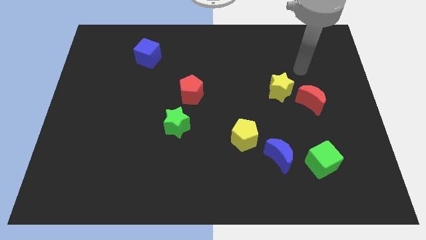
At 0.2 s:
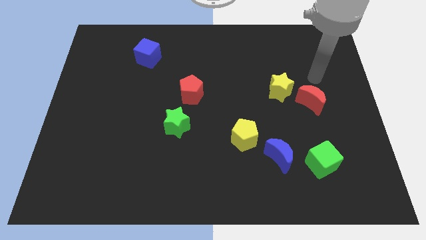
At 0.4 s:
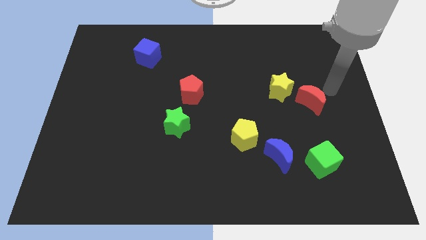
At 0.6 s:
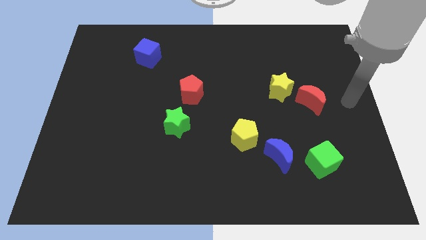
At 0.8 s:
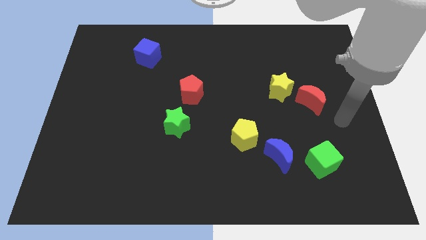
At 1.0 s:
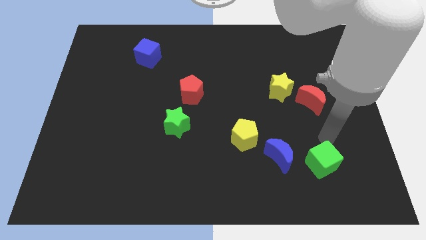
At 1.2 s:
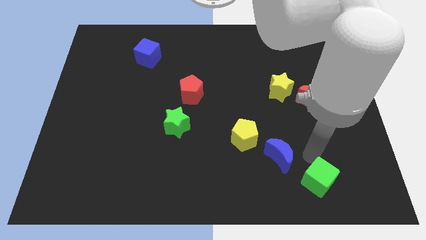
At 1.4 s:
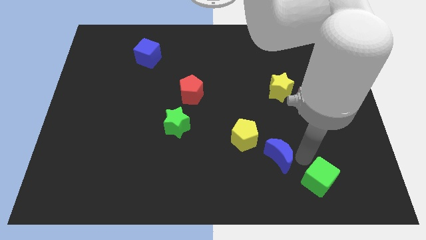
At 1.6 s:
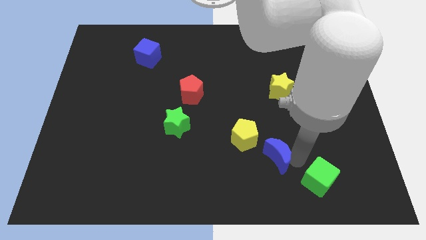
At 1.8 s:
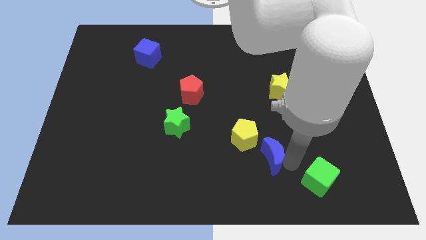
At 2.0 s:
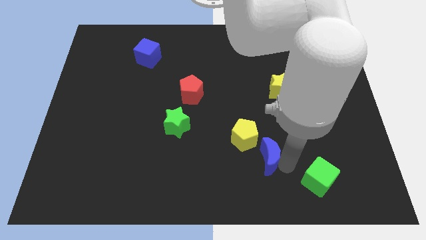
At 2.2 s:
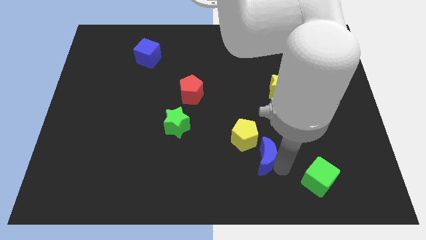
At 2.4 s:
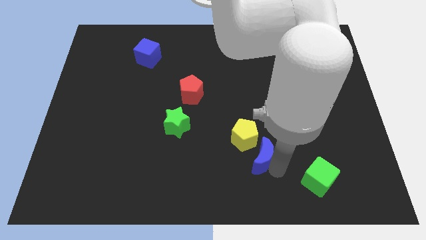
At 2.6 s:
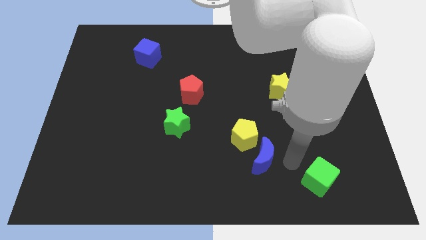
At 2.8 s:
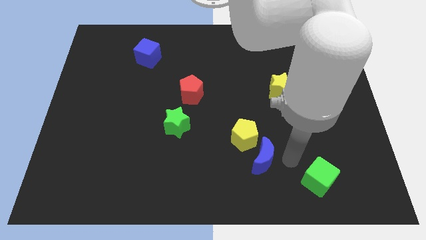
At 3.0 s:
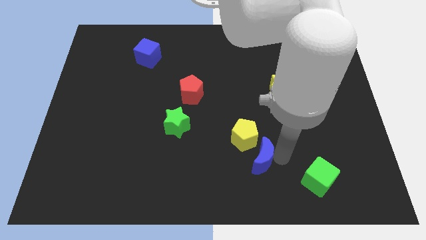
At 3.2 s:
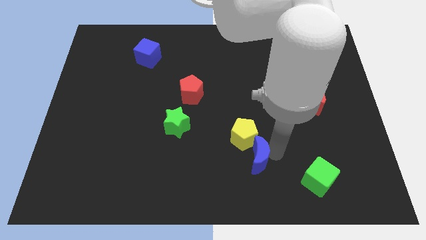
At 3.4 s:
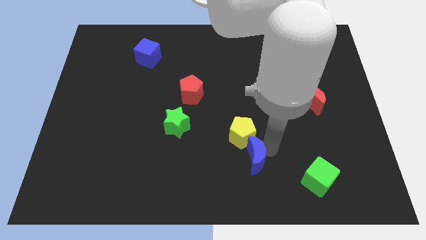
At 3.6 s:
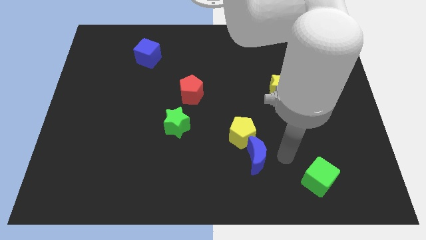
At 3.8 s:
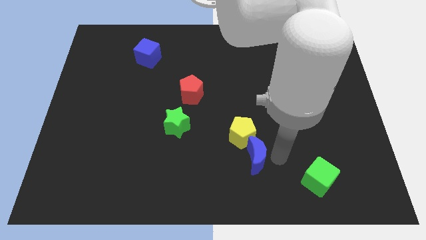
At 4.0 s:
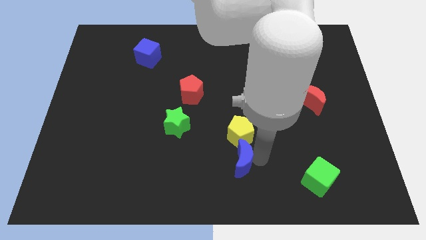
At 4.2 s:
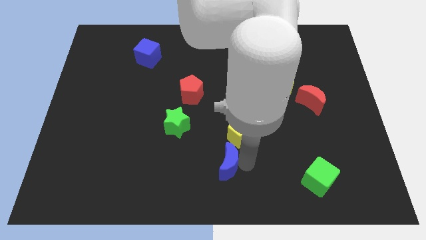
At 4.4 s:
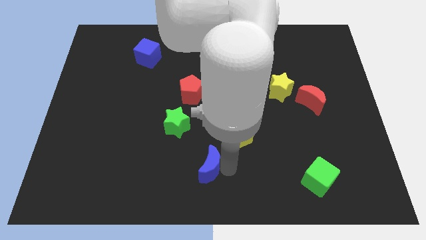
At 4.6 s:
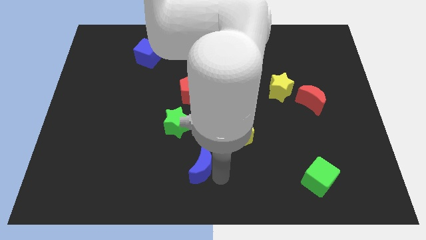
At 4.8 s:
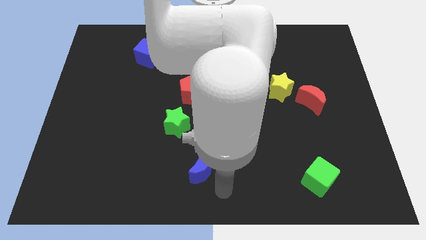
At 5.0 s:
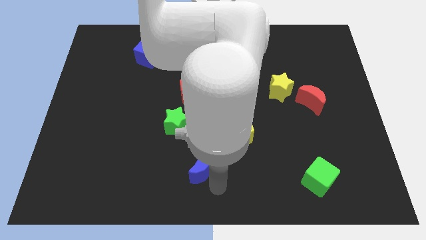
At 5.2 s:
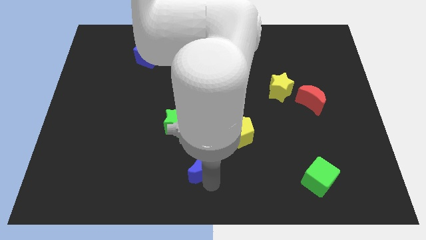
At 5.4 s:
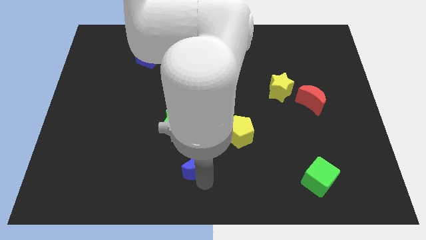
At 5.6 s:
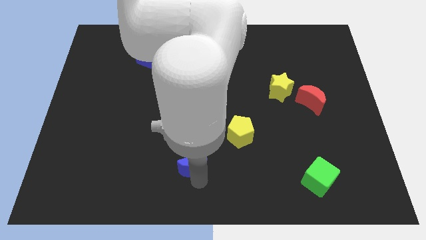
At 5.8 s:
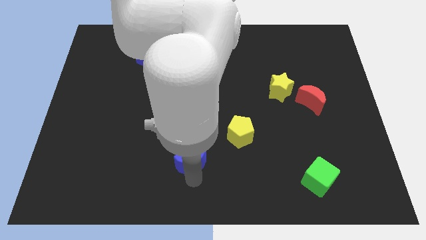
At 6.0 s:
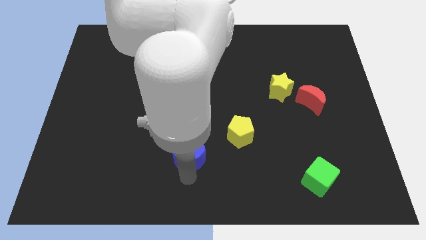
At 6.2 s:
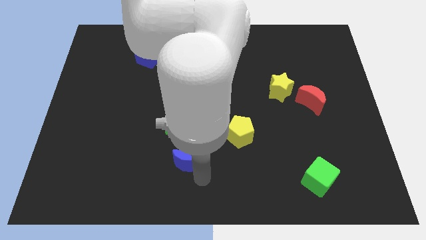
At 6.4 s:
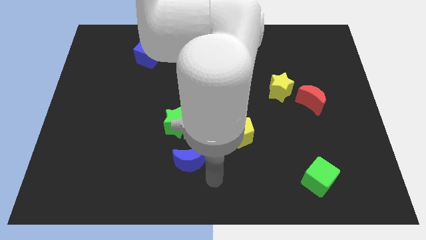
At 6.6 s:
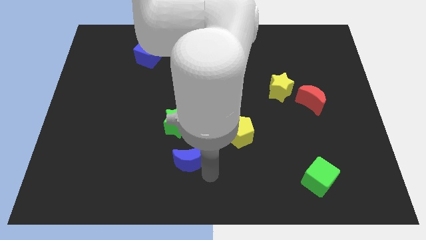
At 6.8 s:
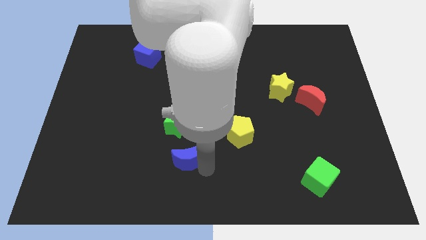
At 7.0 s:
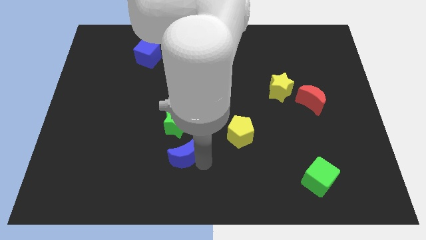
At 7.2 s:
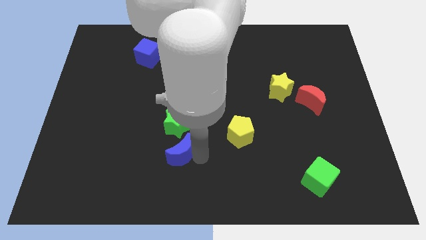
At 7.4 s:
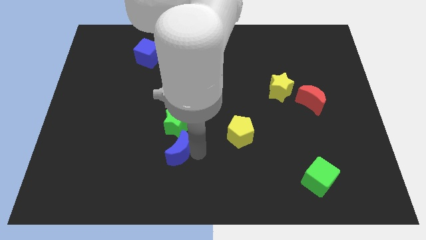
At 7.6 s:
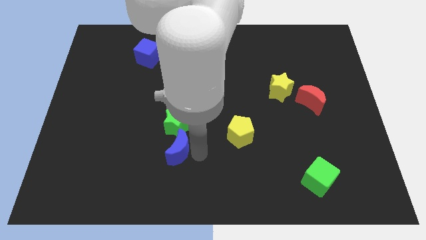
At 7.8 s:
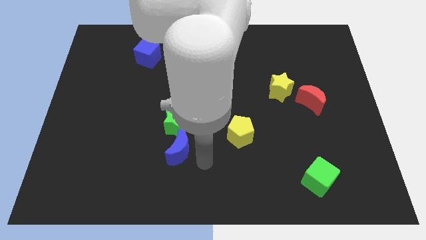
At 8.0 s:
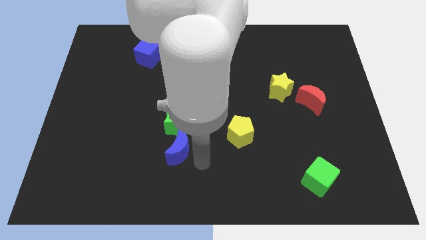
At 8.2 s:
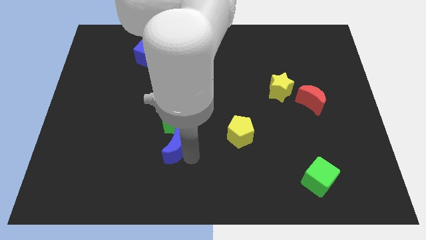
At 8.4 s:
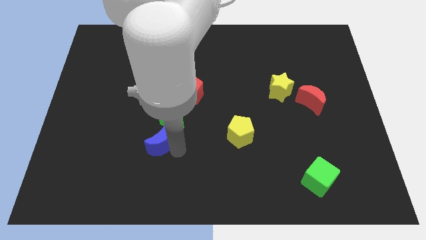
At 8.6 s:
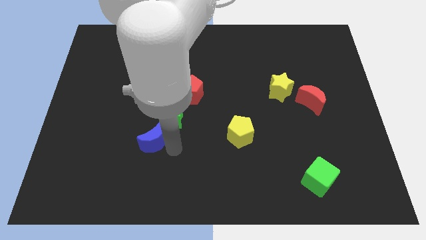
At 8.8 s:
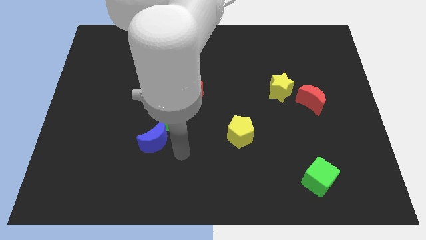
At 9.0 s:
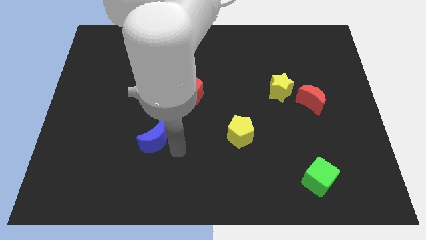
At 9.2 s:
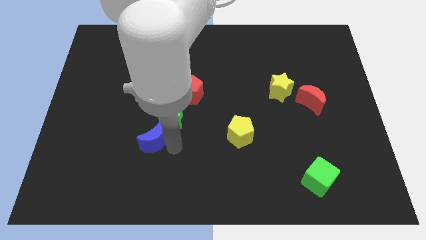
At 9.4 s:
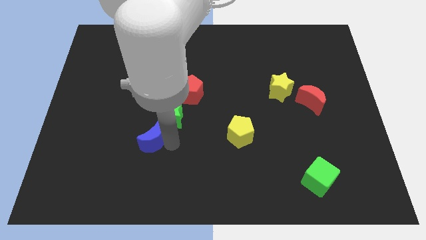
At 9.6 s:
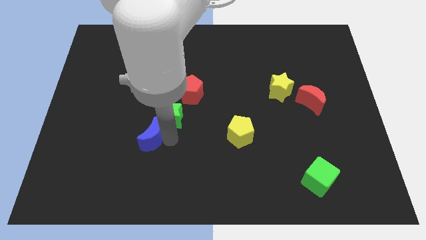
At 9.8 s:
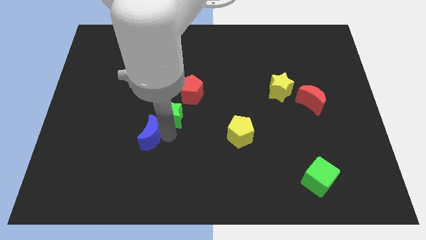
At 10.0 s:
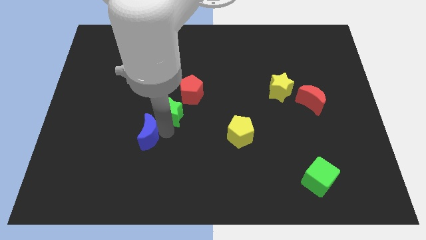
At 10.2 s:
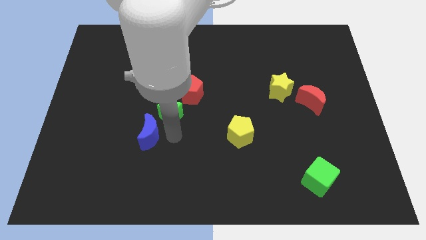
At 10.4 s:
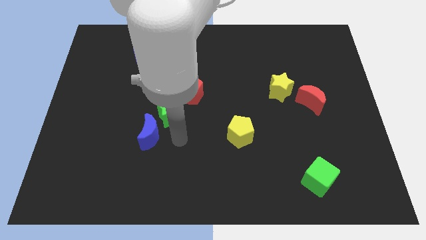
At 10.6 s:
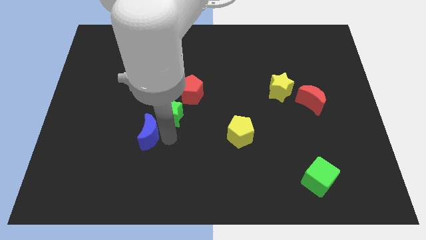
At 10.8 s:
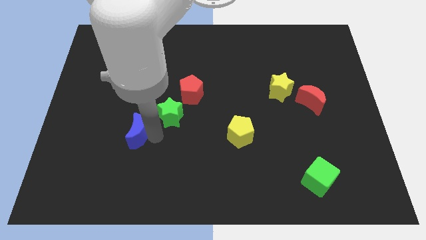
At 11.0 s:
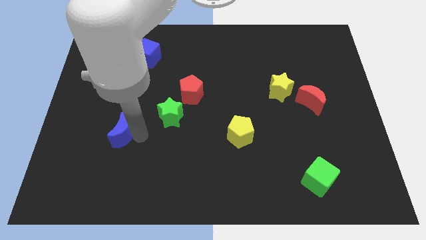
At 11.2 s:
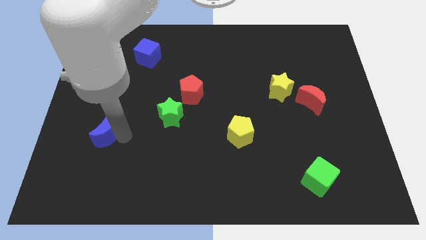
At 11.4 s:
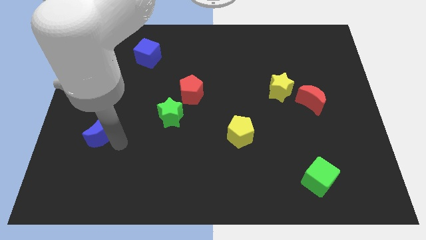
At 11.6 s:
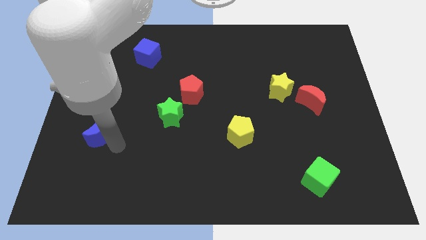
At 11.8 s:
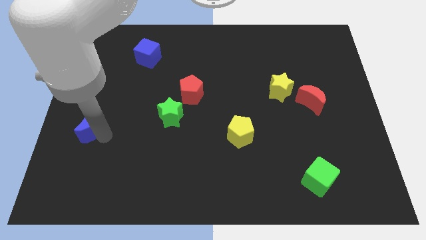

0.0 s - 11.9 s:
push the blue moon to the center left
